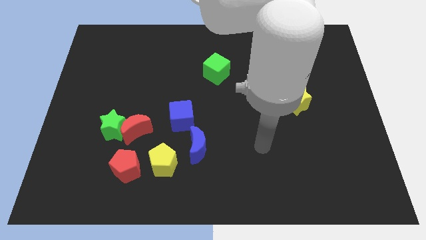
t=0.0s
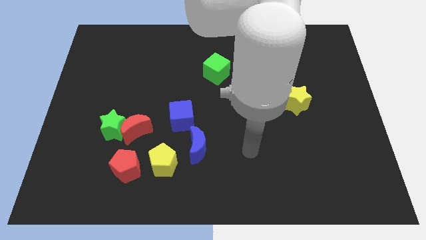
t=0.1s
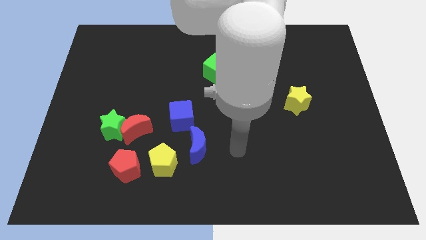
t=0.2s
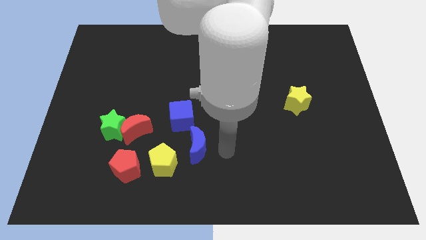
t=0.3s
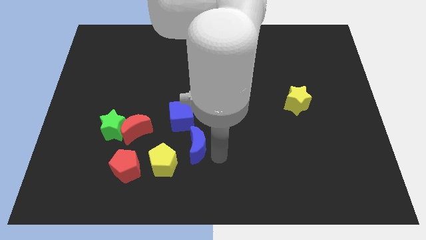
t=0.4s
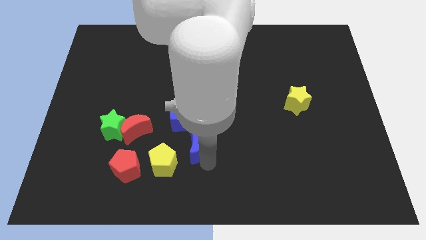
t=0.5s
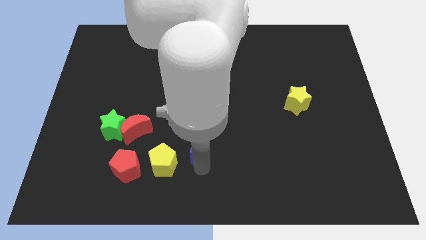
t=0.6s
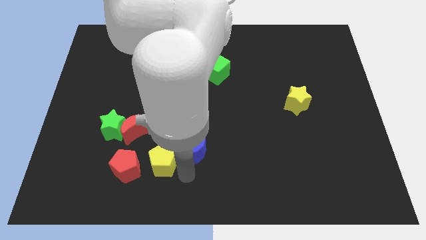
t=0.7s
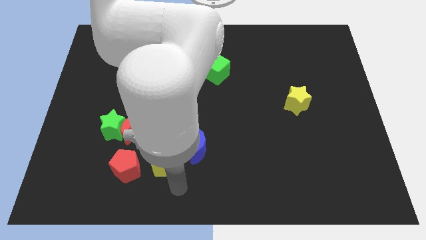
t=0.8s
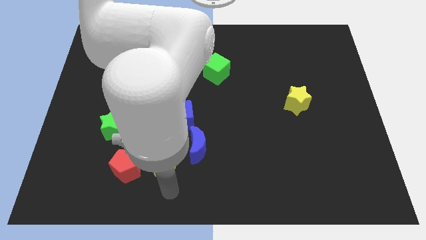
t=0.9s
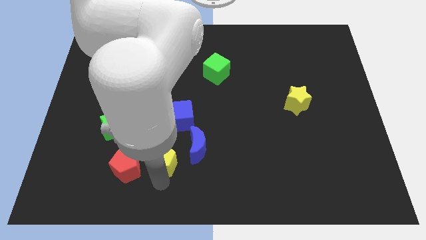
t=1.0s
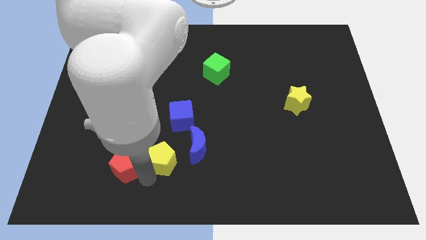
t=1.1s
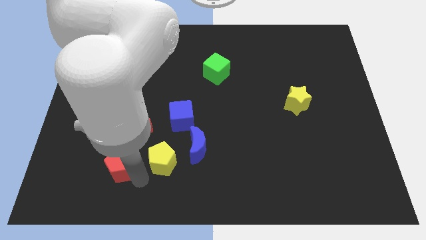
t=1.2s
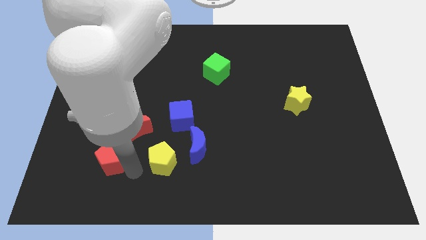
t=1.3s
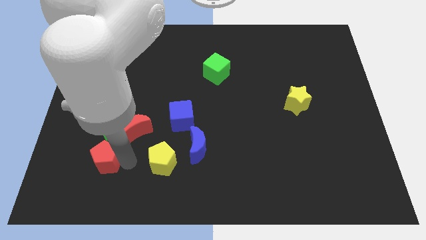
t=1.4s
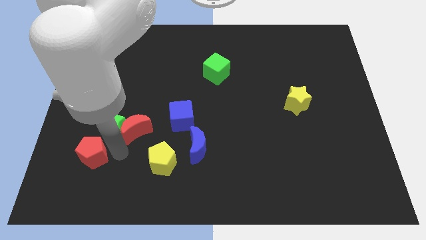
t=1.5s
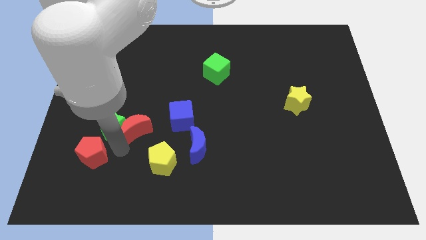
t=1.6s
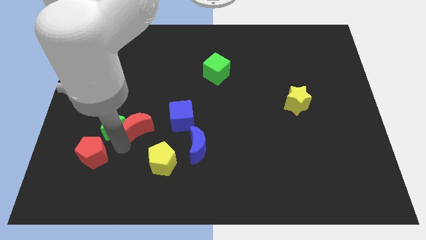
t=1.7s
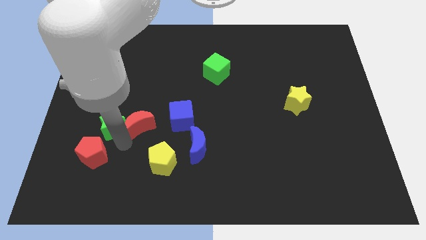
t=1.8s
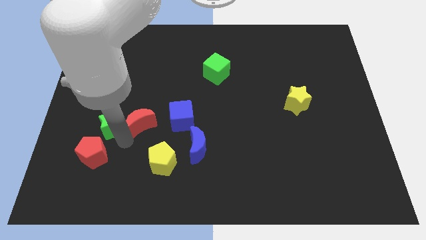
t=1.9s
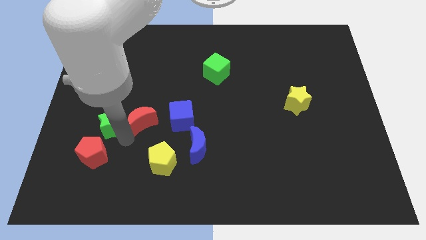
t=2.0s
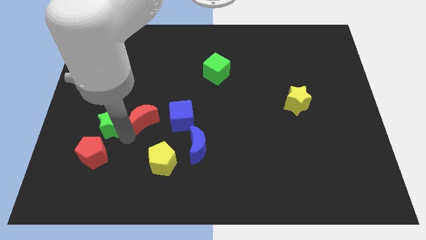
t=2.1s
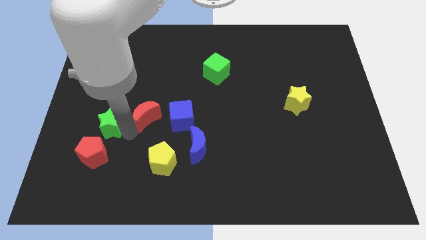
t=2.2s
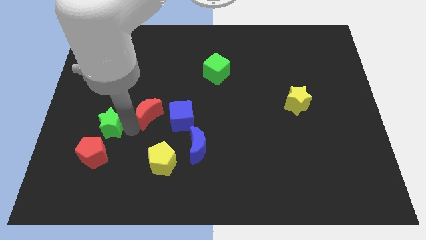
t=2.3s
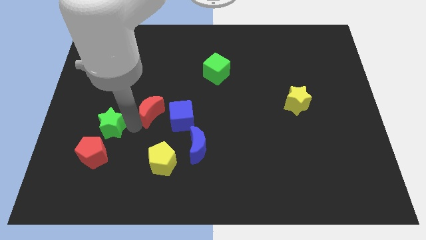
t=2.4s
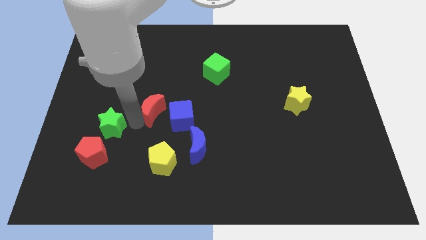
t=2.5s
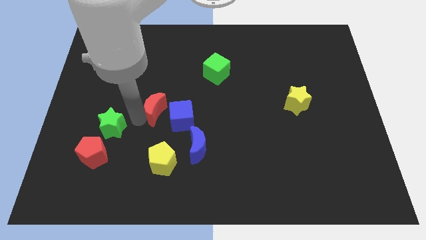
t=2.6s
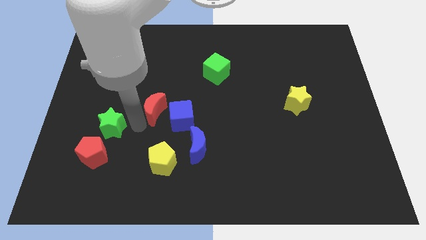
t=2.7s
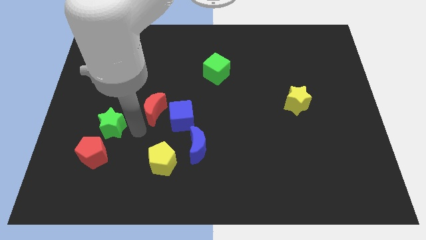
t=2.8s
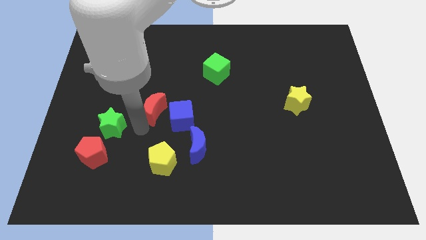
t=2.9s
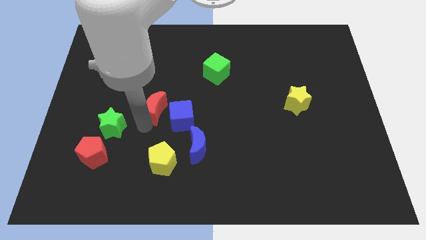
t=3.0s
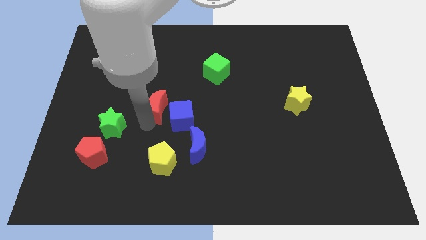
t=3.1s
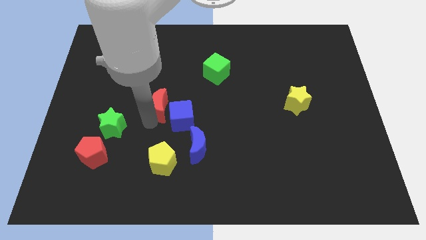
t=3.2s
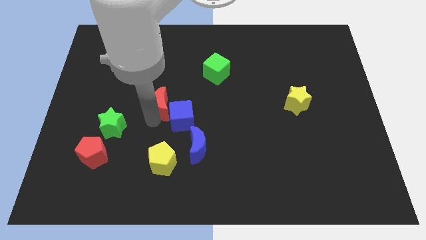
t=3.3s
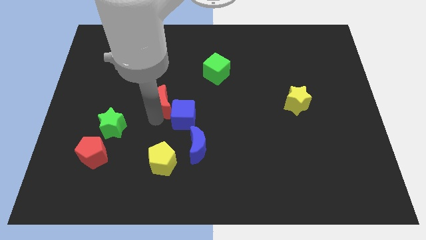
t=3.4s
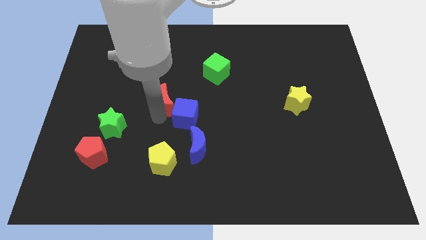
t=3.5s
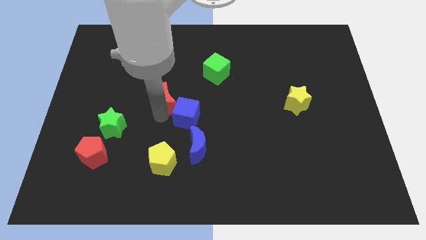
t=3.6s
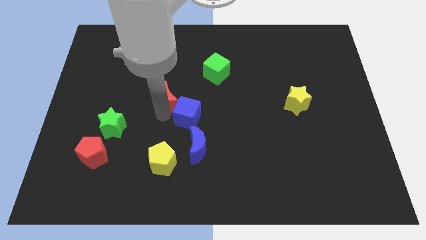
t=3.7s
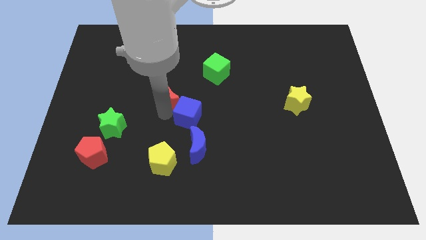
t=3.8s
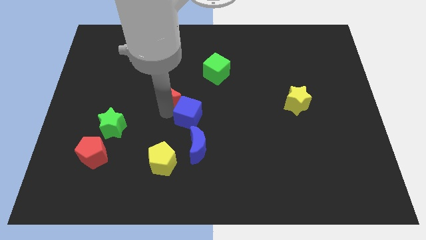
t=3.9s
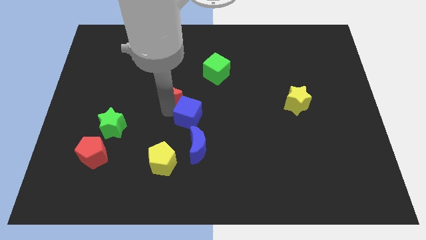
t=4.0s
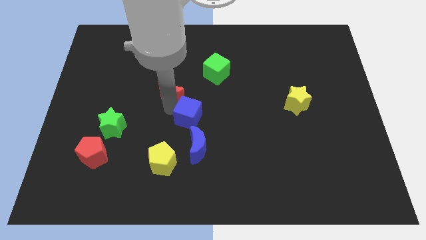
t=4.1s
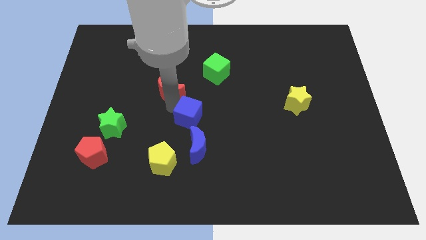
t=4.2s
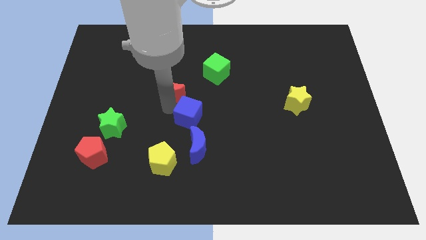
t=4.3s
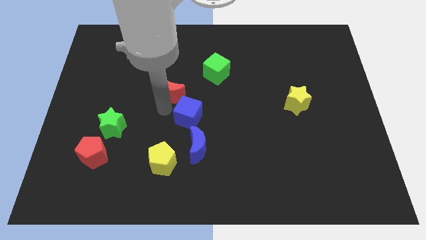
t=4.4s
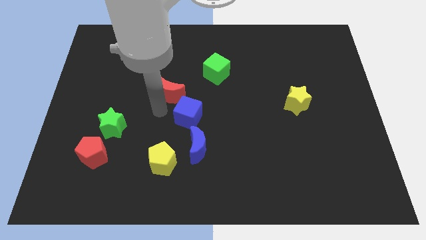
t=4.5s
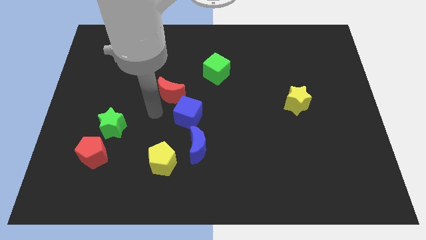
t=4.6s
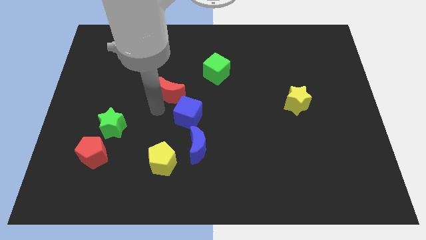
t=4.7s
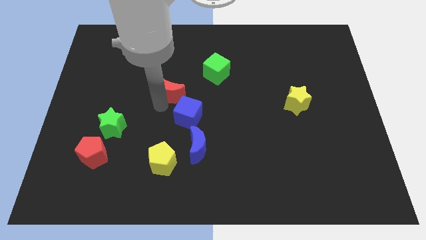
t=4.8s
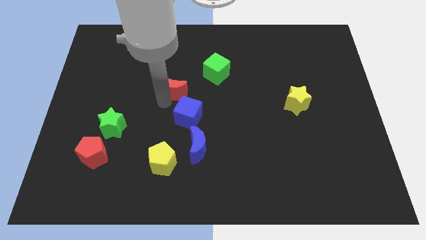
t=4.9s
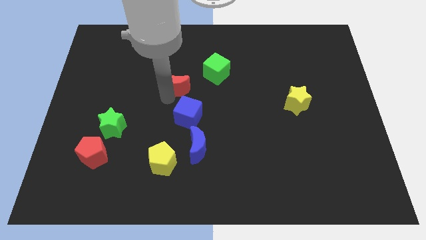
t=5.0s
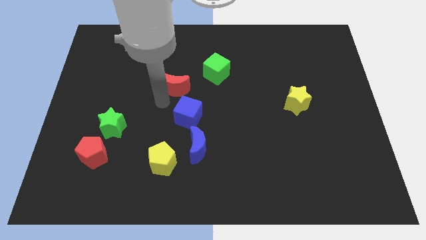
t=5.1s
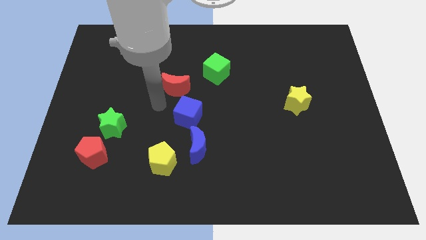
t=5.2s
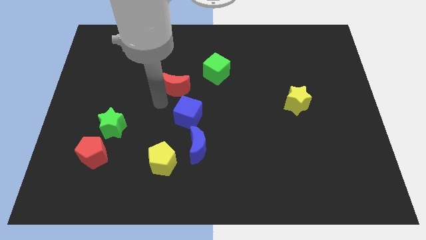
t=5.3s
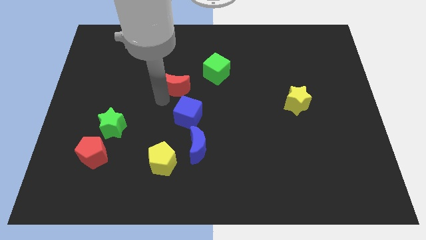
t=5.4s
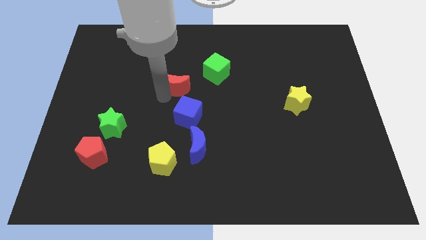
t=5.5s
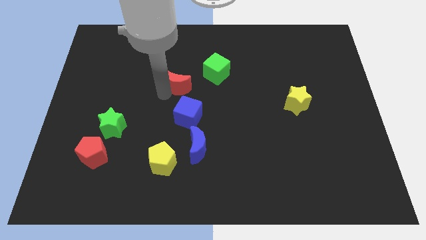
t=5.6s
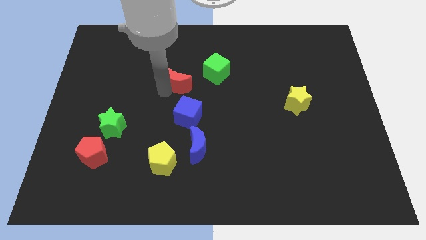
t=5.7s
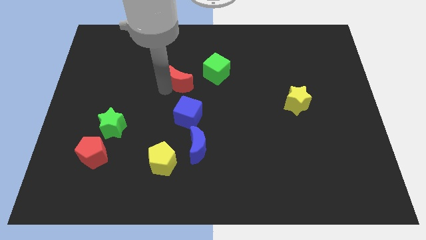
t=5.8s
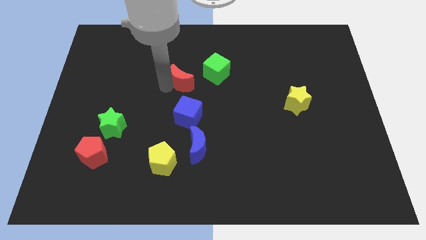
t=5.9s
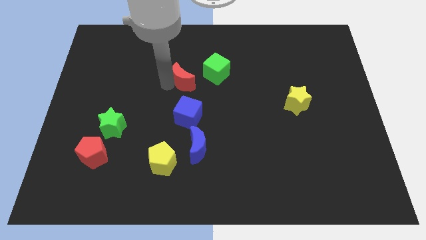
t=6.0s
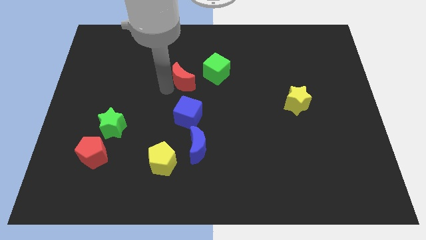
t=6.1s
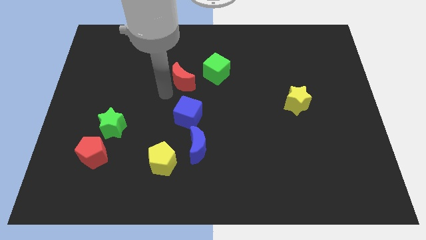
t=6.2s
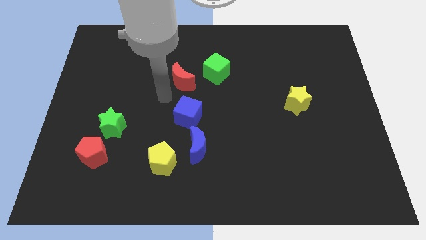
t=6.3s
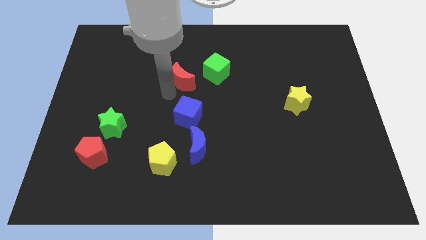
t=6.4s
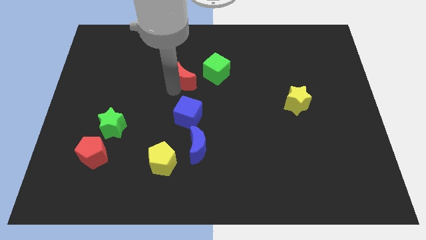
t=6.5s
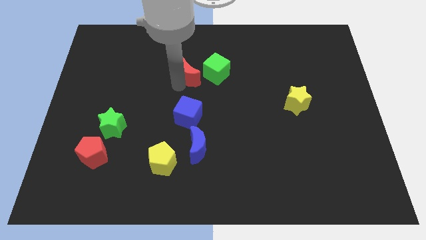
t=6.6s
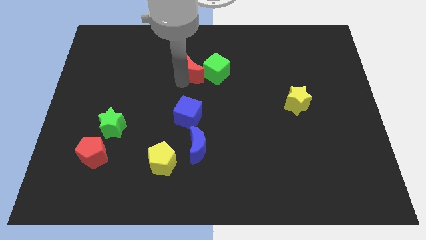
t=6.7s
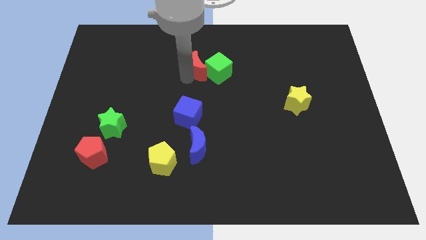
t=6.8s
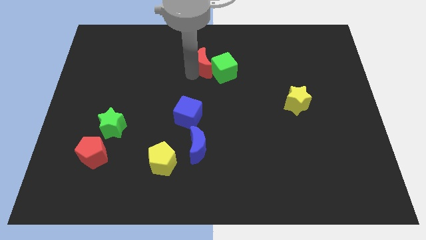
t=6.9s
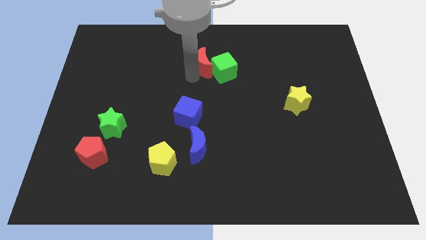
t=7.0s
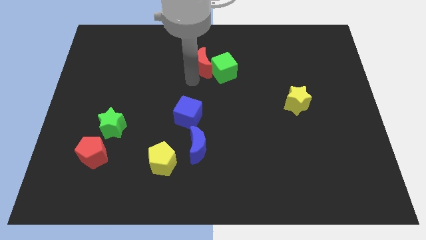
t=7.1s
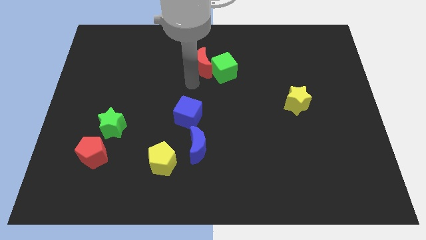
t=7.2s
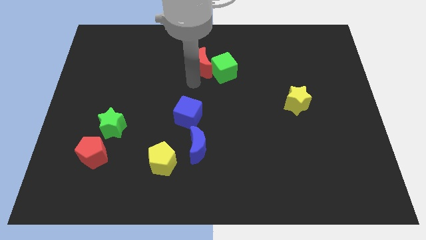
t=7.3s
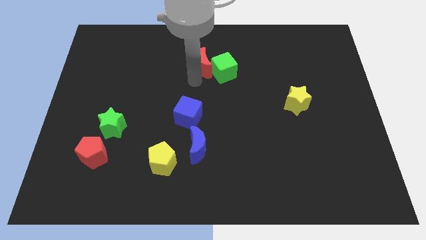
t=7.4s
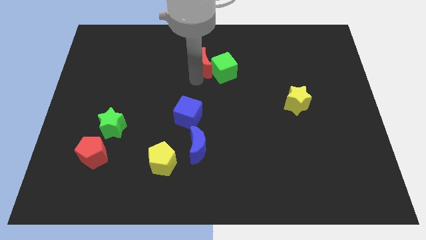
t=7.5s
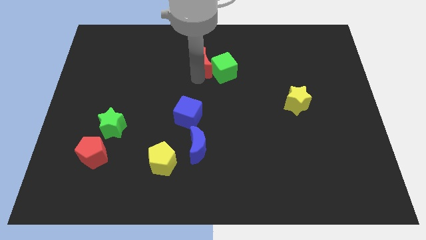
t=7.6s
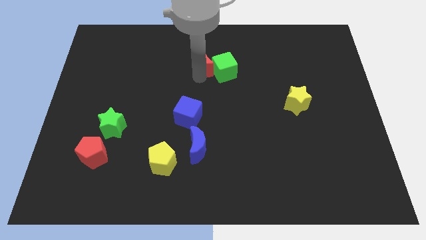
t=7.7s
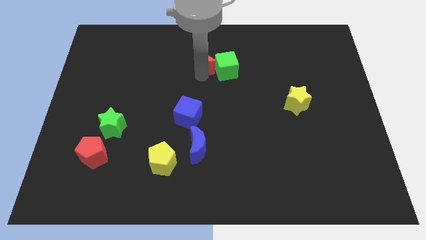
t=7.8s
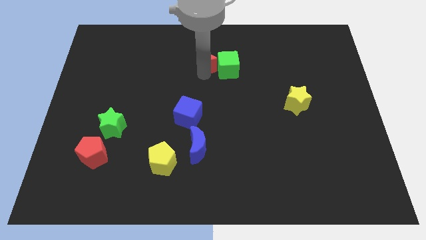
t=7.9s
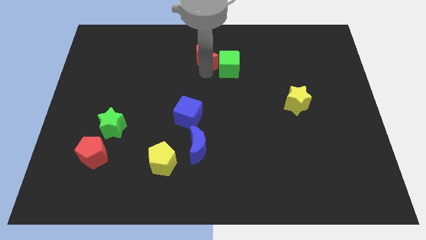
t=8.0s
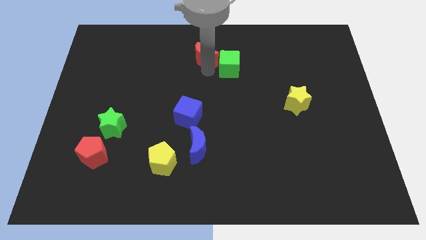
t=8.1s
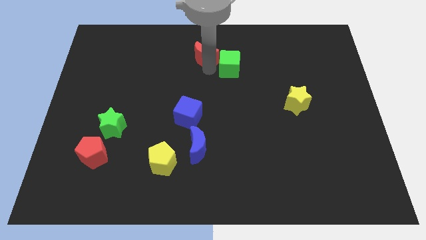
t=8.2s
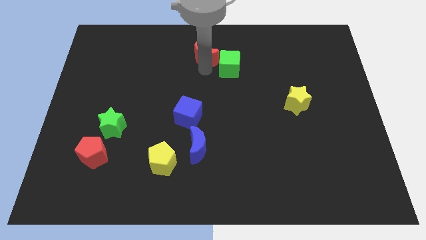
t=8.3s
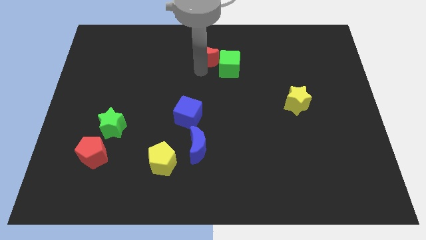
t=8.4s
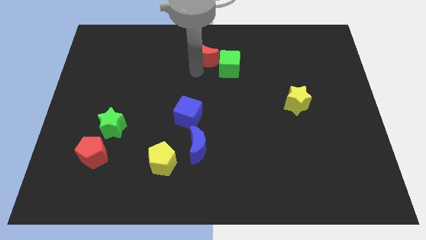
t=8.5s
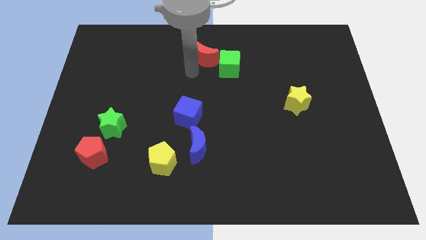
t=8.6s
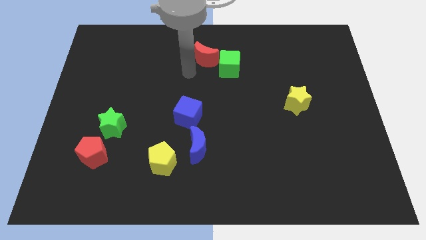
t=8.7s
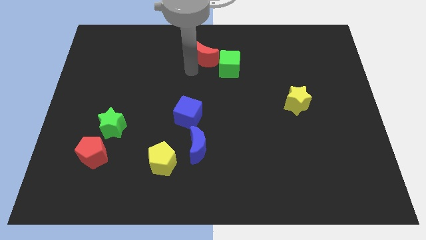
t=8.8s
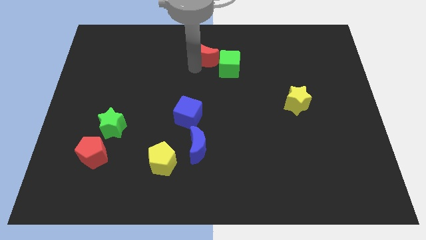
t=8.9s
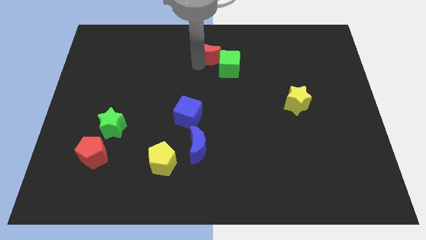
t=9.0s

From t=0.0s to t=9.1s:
slide the red moon to the top
